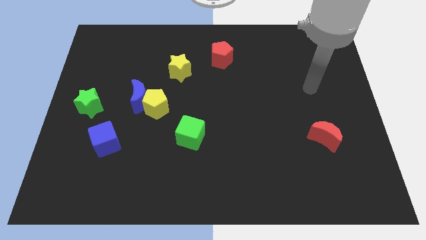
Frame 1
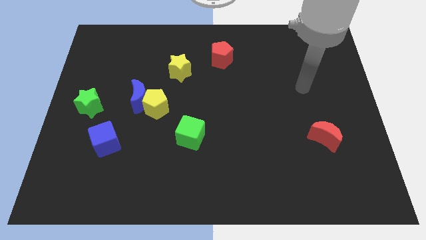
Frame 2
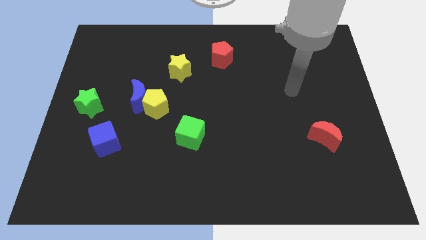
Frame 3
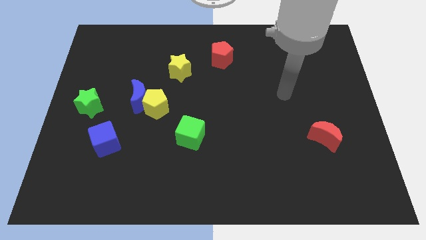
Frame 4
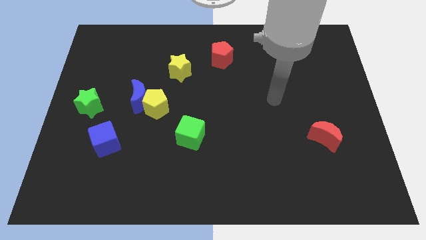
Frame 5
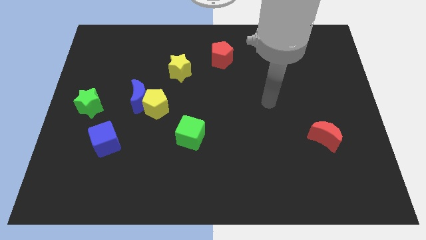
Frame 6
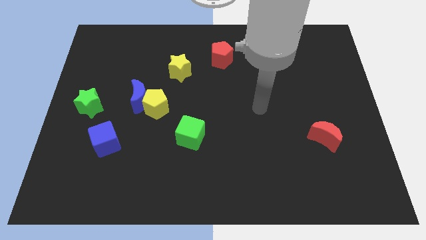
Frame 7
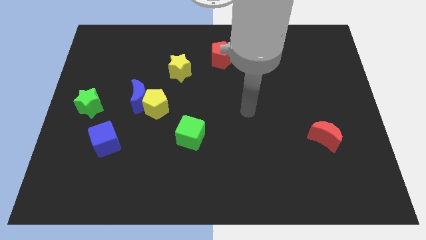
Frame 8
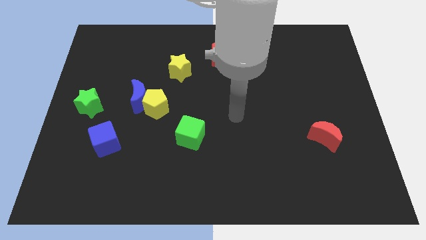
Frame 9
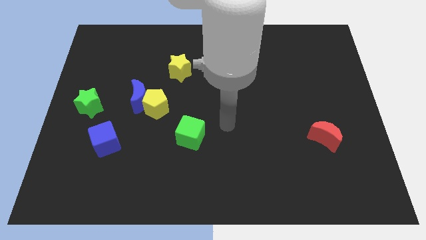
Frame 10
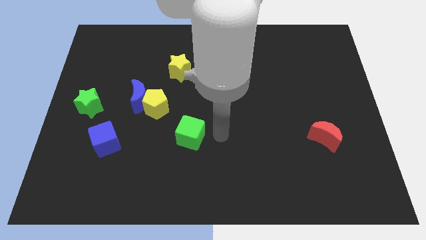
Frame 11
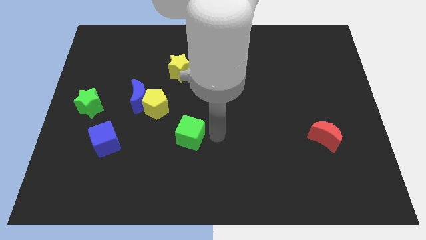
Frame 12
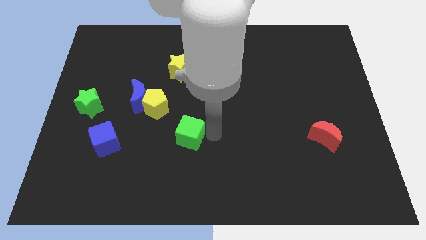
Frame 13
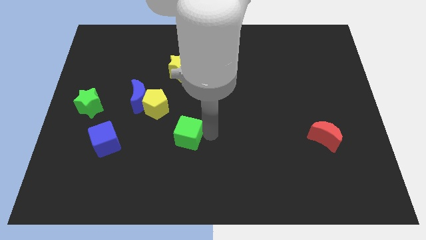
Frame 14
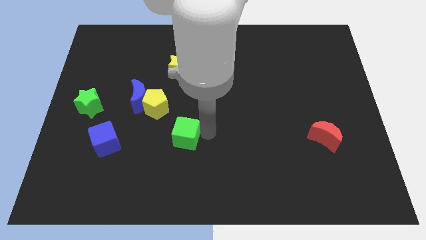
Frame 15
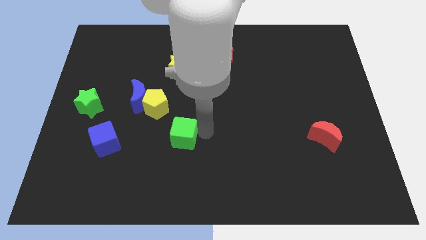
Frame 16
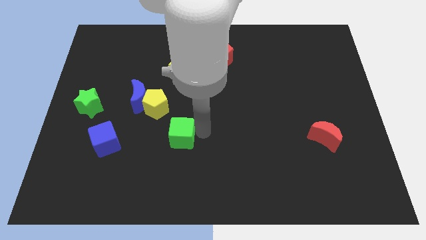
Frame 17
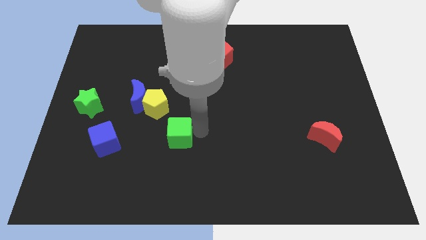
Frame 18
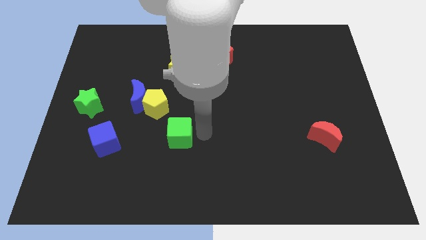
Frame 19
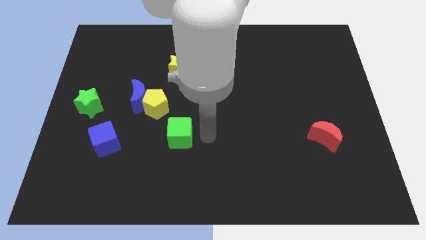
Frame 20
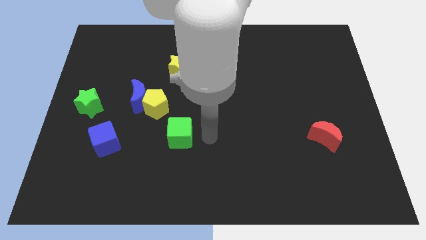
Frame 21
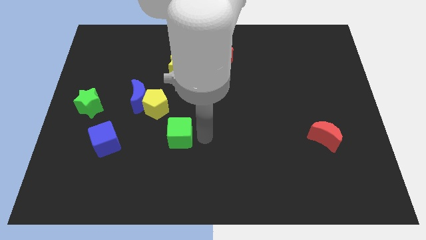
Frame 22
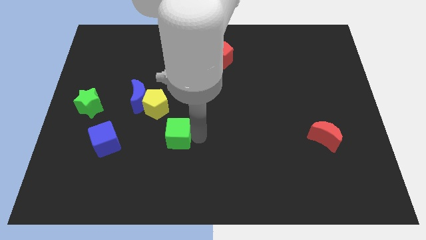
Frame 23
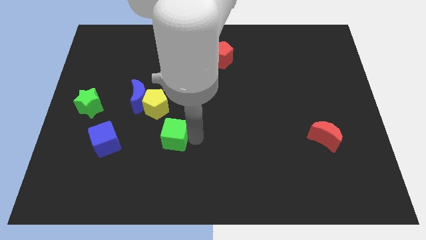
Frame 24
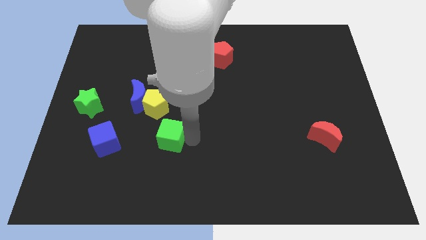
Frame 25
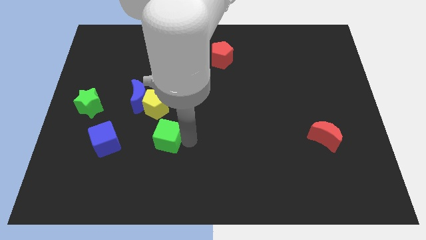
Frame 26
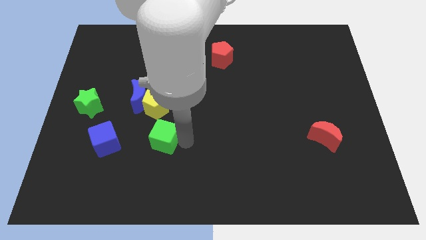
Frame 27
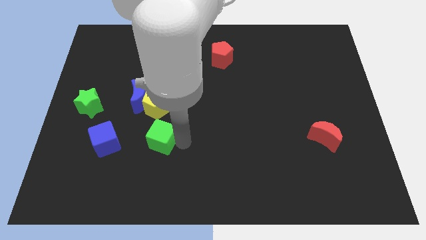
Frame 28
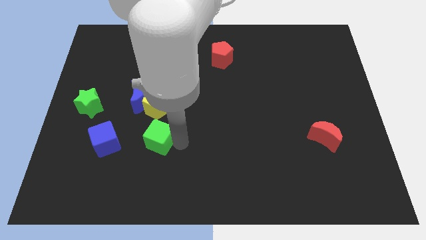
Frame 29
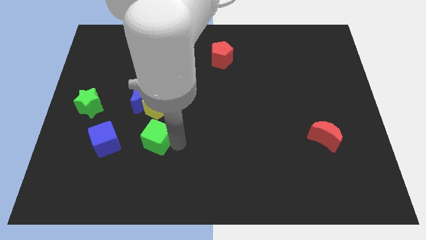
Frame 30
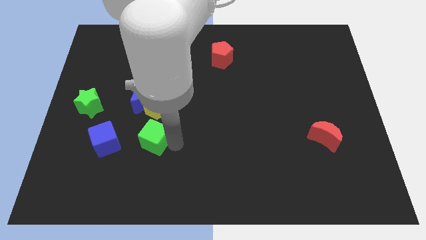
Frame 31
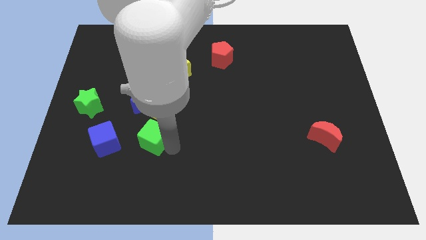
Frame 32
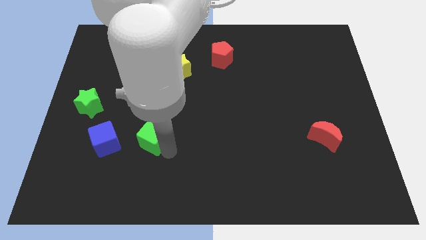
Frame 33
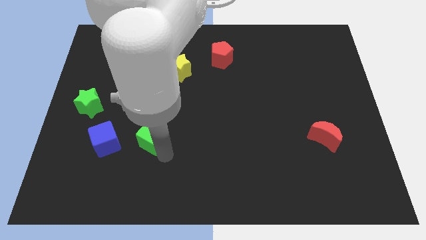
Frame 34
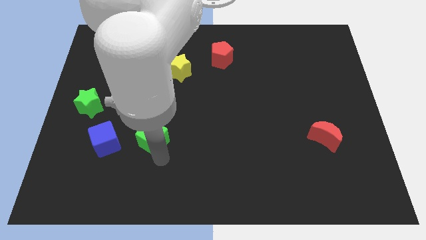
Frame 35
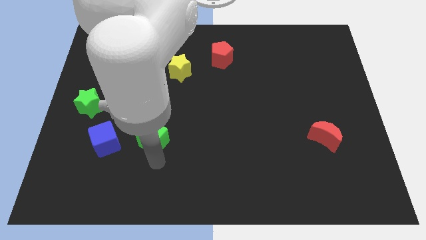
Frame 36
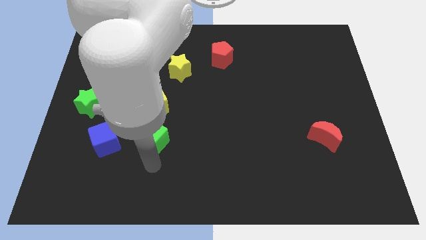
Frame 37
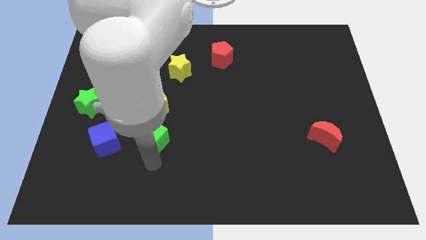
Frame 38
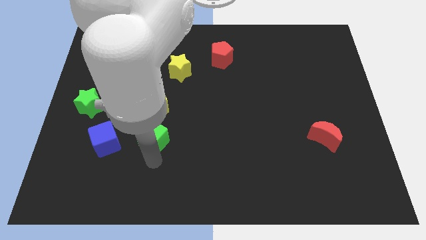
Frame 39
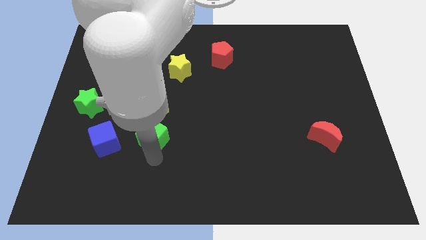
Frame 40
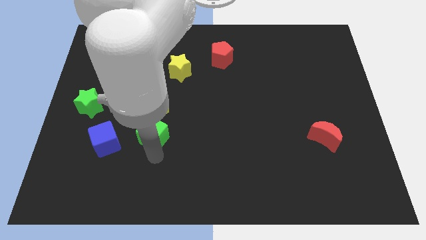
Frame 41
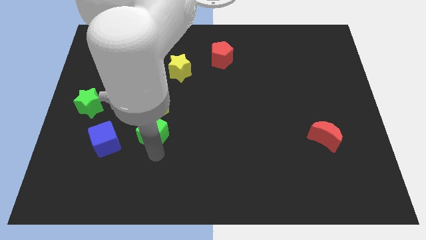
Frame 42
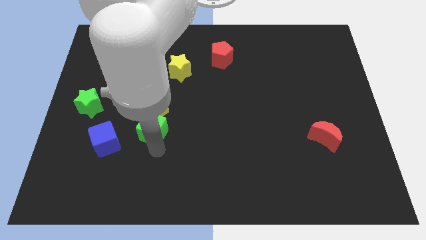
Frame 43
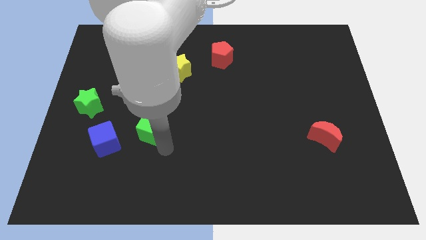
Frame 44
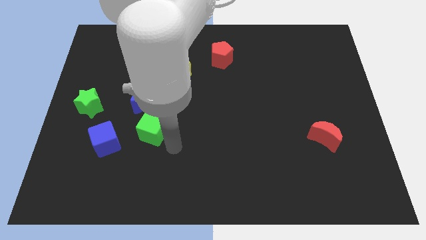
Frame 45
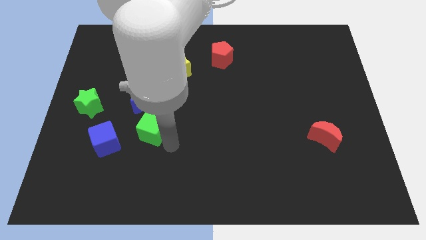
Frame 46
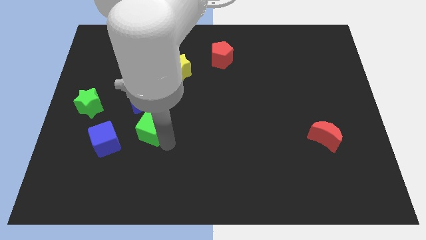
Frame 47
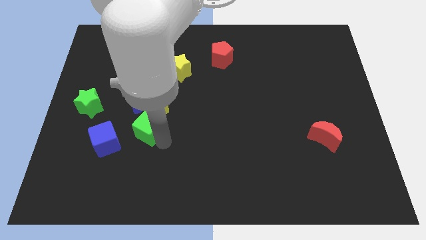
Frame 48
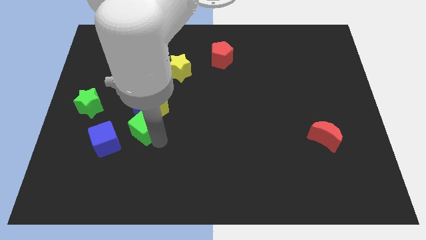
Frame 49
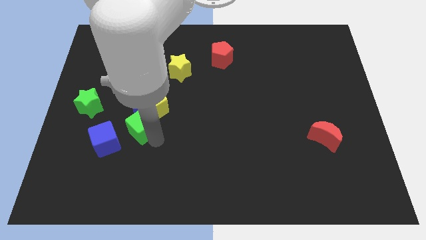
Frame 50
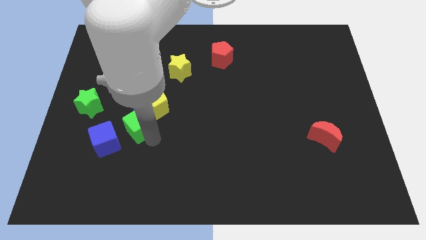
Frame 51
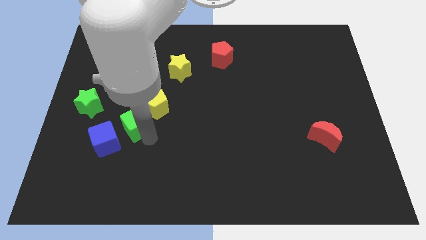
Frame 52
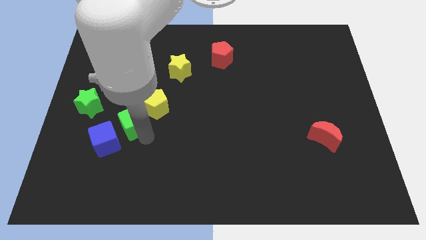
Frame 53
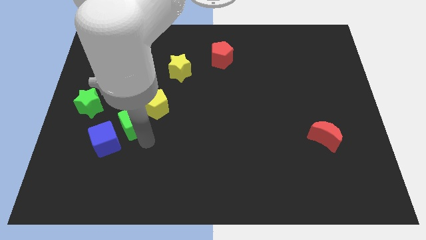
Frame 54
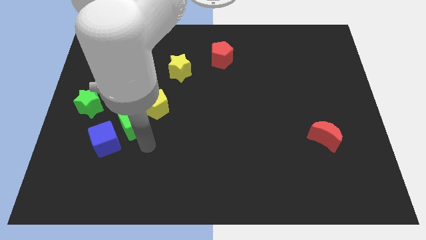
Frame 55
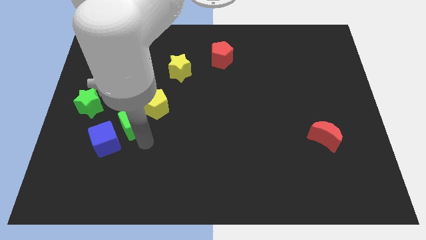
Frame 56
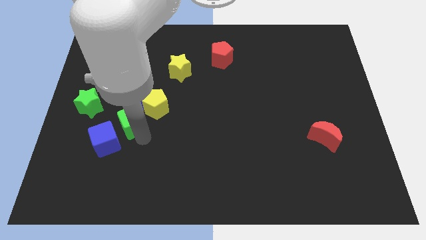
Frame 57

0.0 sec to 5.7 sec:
slide the green cube to the left of the yellow pentagon
